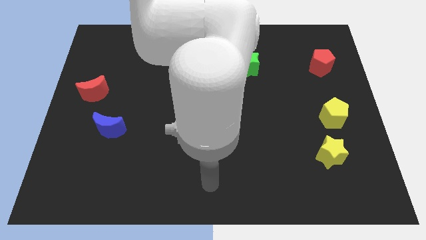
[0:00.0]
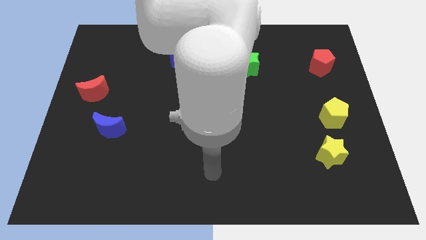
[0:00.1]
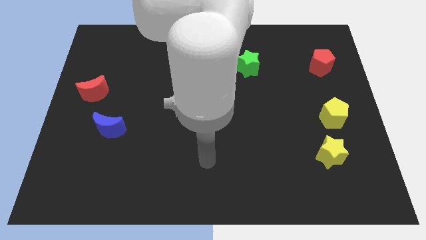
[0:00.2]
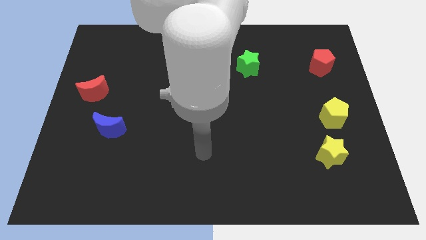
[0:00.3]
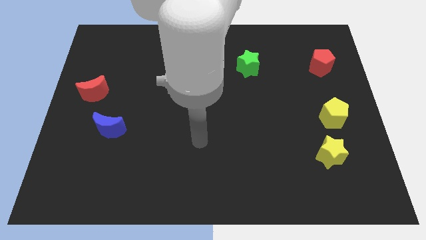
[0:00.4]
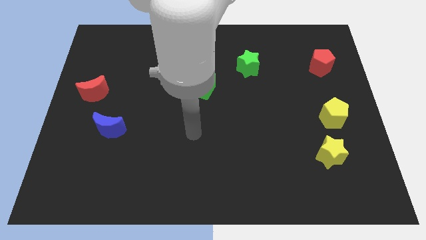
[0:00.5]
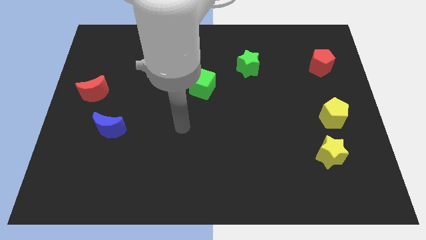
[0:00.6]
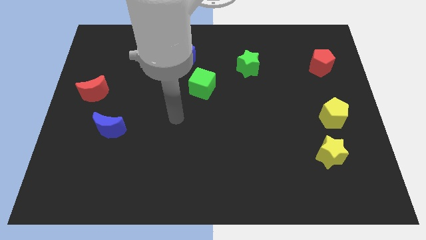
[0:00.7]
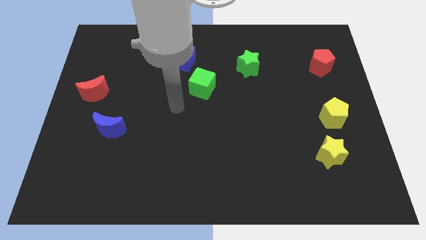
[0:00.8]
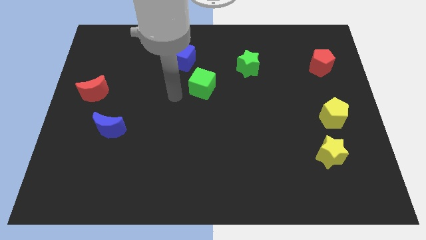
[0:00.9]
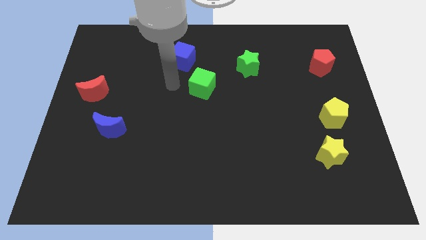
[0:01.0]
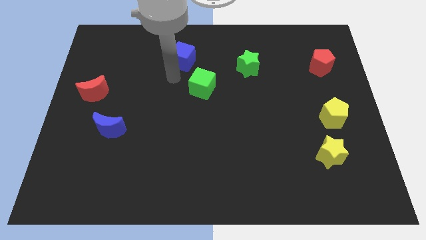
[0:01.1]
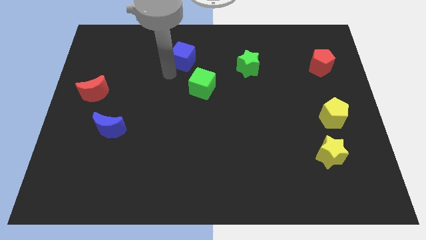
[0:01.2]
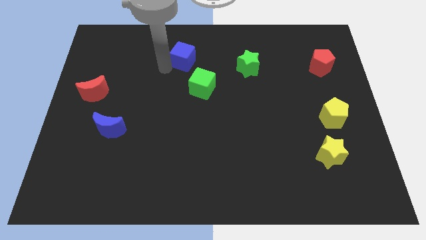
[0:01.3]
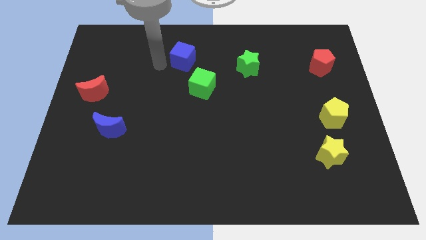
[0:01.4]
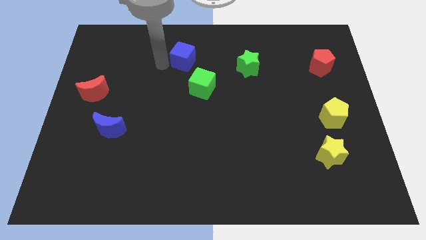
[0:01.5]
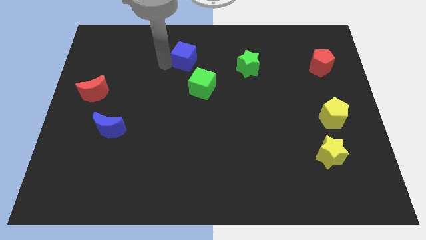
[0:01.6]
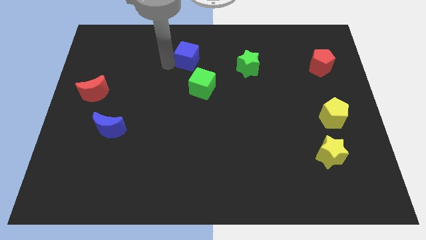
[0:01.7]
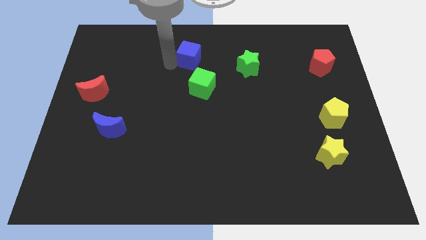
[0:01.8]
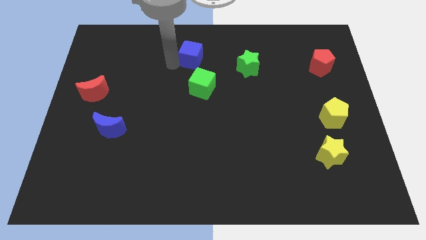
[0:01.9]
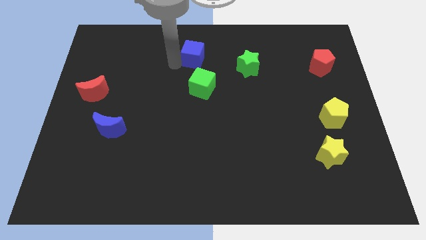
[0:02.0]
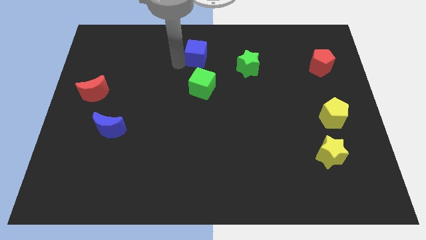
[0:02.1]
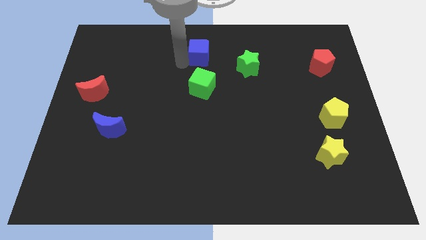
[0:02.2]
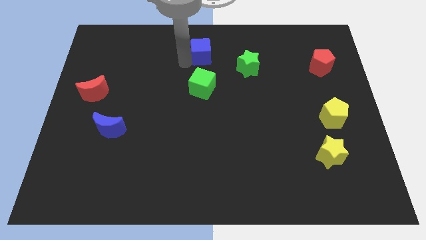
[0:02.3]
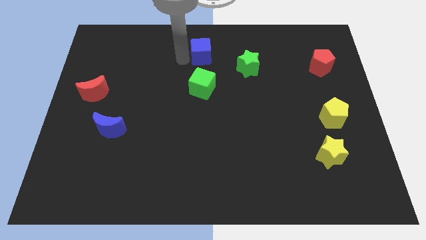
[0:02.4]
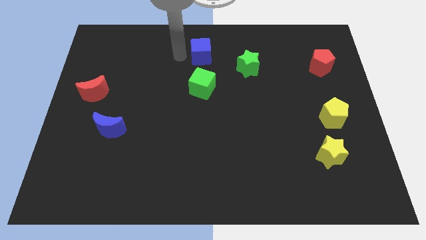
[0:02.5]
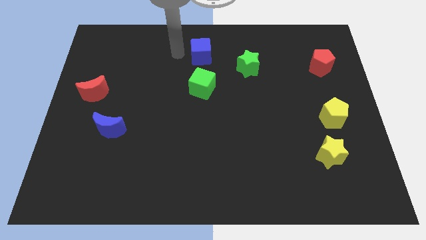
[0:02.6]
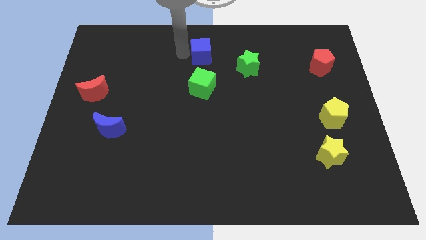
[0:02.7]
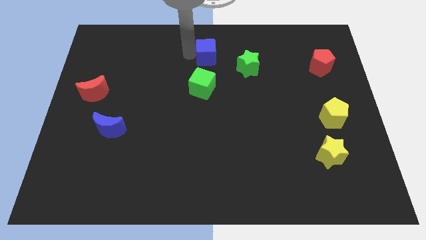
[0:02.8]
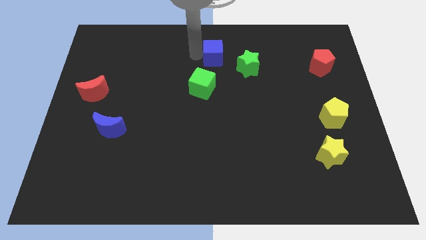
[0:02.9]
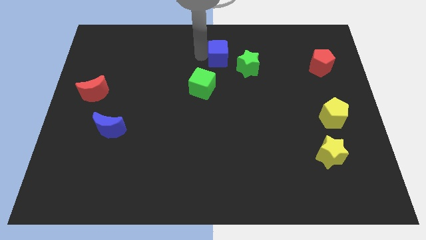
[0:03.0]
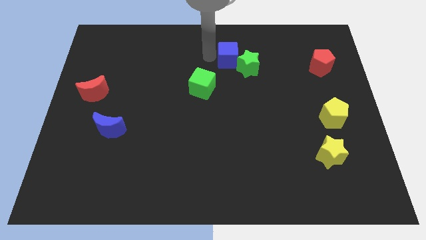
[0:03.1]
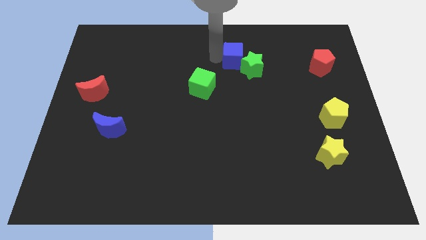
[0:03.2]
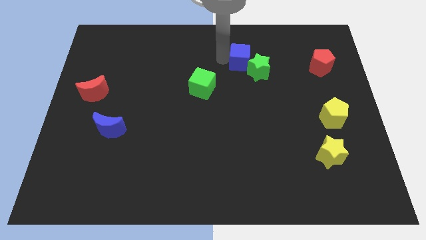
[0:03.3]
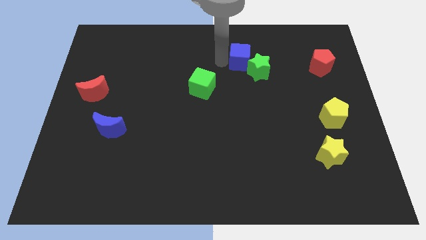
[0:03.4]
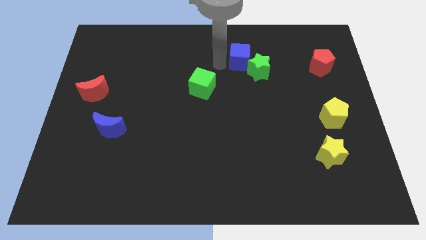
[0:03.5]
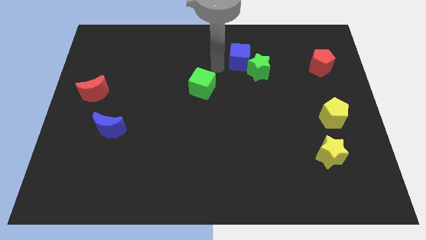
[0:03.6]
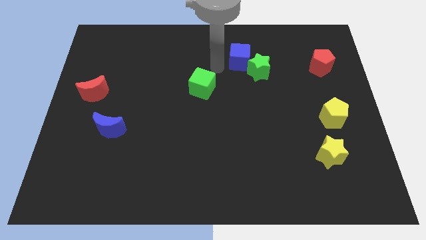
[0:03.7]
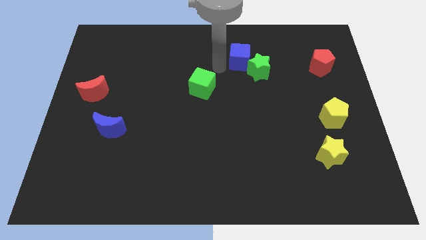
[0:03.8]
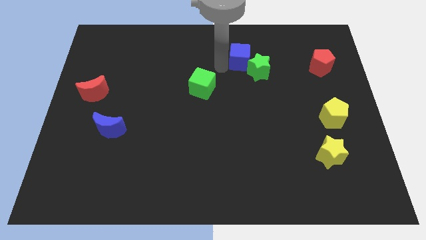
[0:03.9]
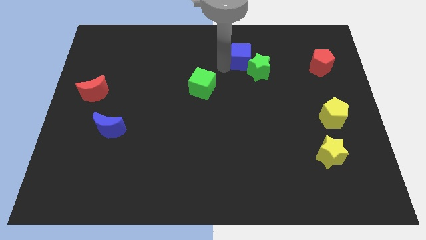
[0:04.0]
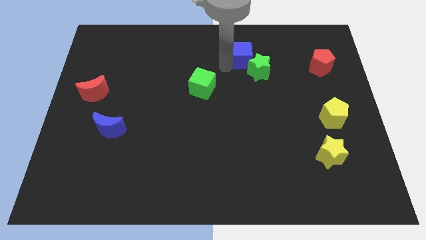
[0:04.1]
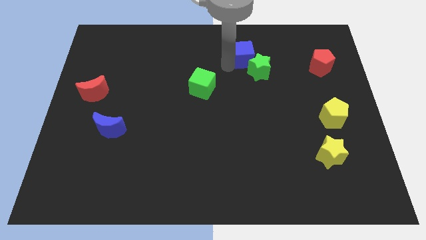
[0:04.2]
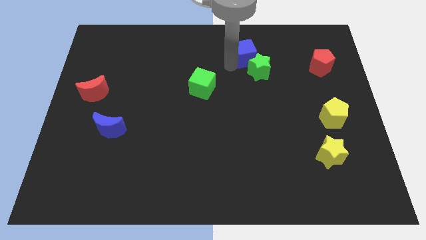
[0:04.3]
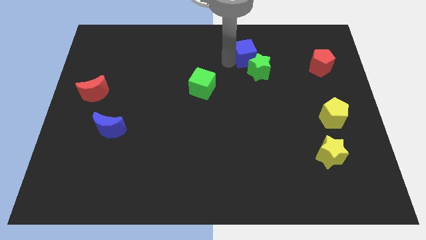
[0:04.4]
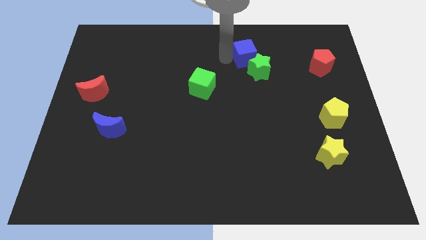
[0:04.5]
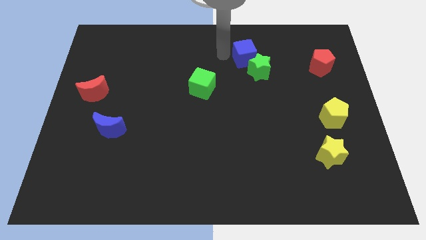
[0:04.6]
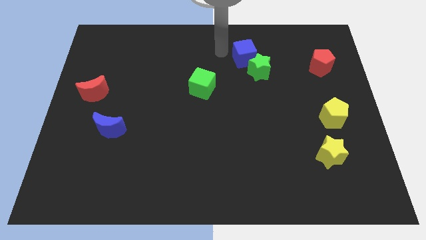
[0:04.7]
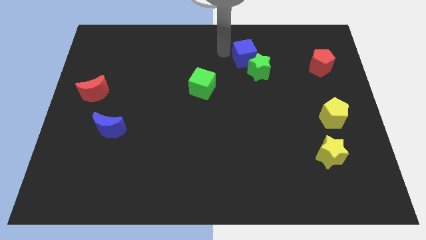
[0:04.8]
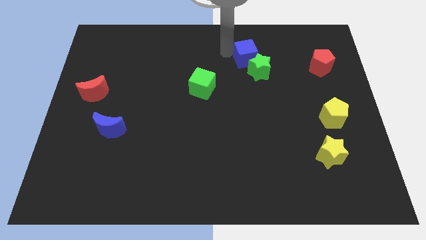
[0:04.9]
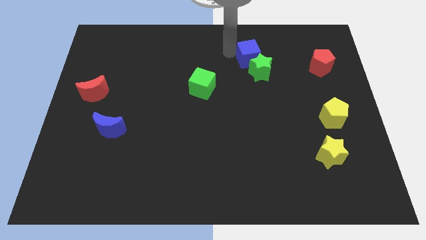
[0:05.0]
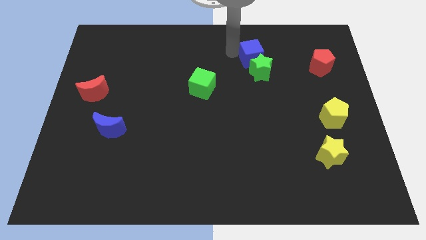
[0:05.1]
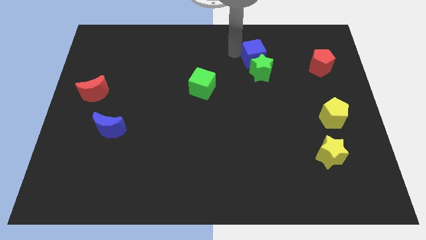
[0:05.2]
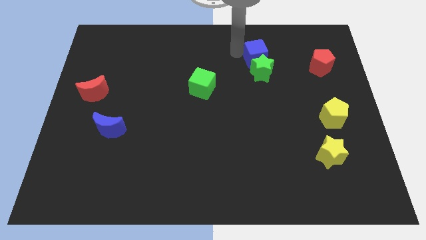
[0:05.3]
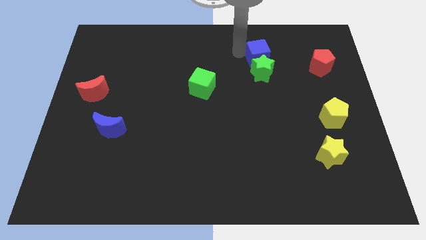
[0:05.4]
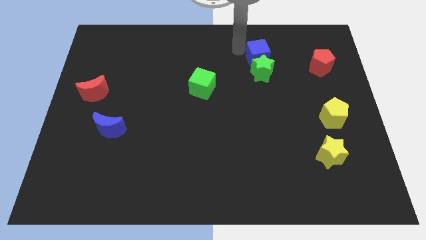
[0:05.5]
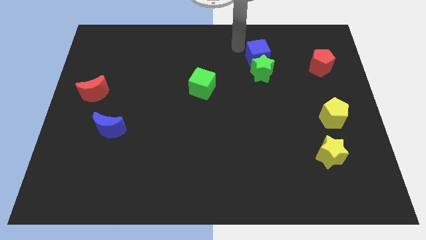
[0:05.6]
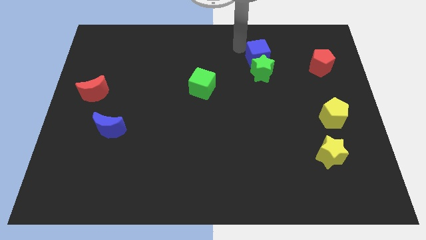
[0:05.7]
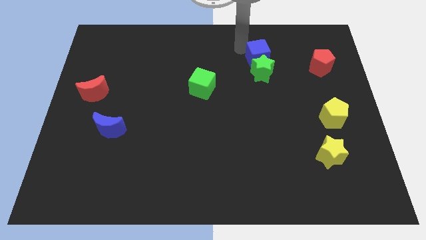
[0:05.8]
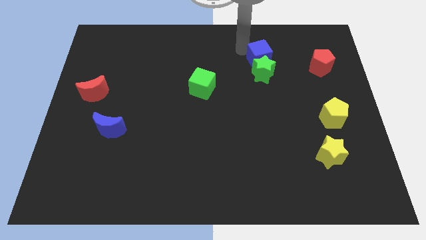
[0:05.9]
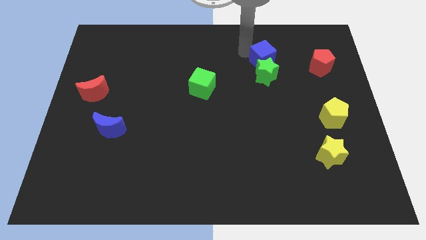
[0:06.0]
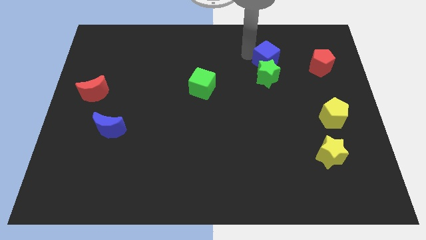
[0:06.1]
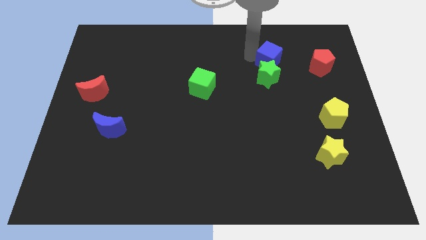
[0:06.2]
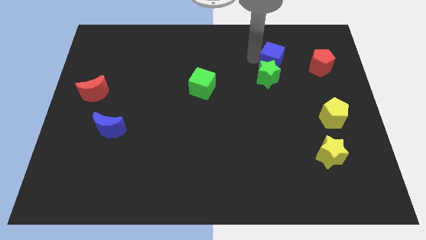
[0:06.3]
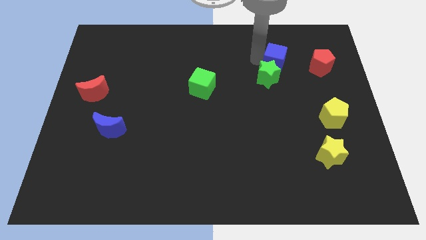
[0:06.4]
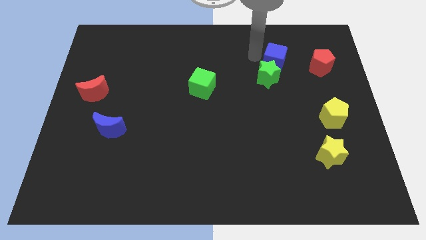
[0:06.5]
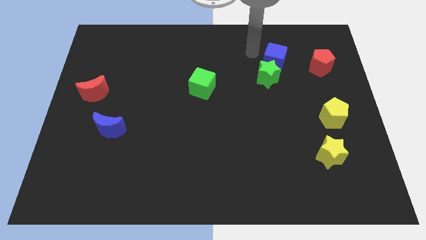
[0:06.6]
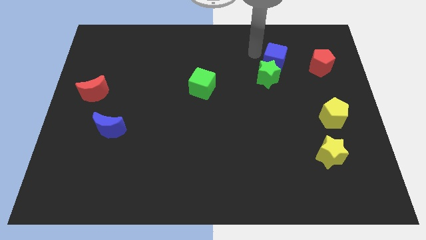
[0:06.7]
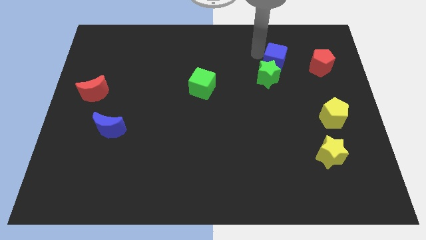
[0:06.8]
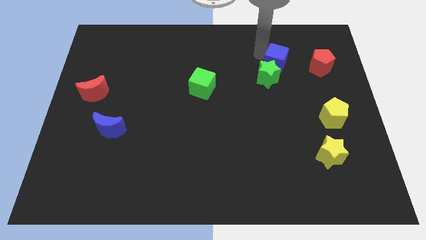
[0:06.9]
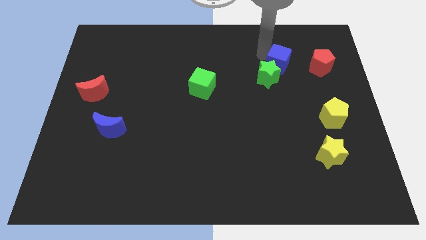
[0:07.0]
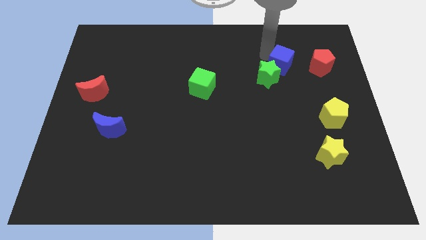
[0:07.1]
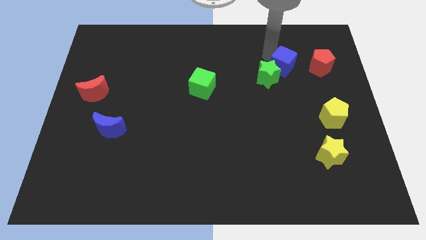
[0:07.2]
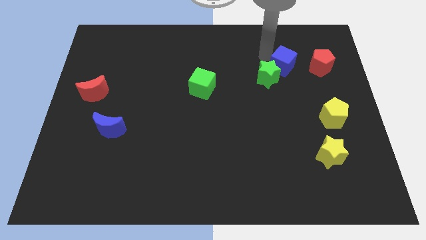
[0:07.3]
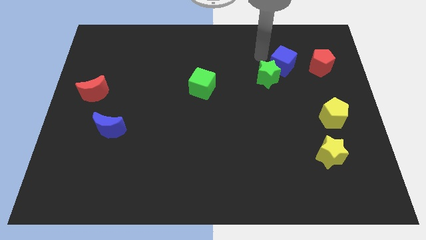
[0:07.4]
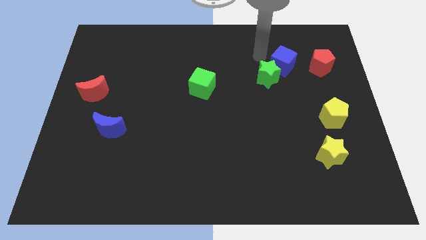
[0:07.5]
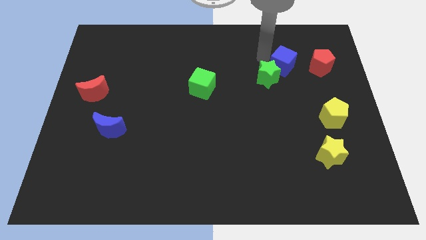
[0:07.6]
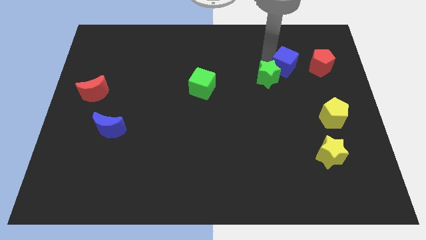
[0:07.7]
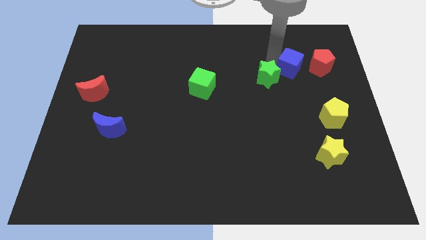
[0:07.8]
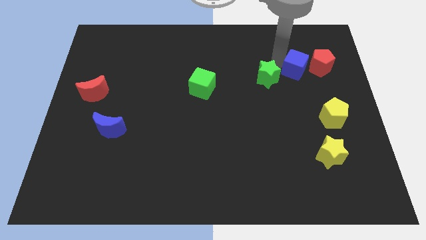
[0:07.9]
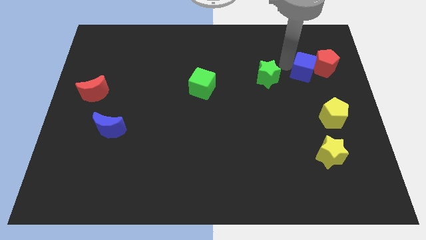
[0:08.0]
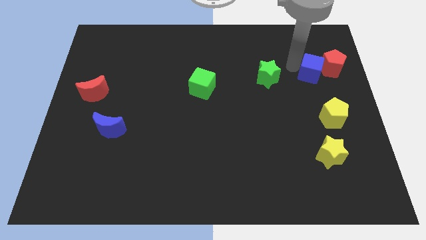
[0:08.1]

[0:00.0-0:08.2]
move the blue cube to the top side of the yellow pentagon

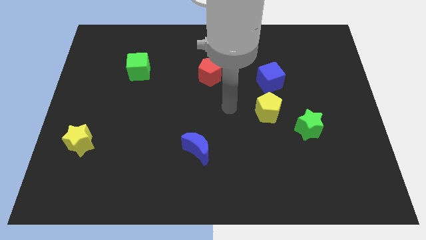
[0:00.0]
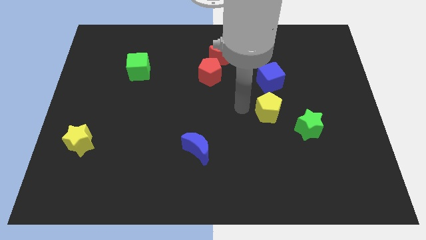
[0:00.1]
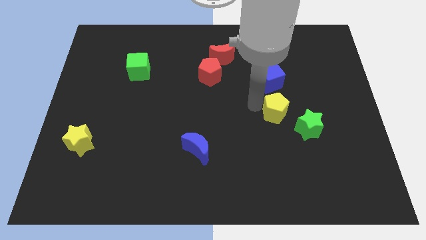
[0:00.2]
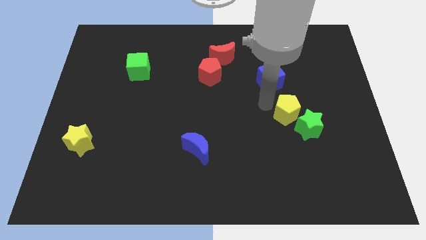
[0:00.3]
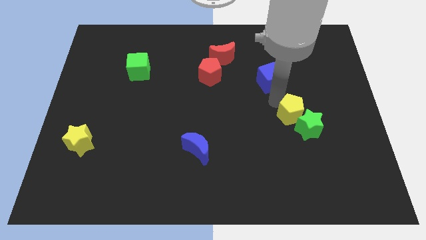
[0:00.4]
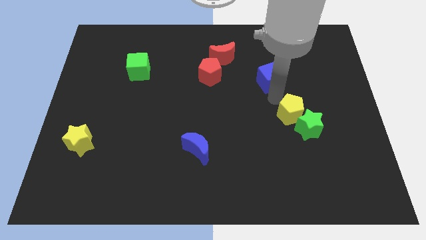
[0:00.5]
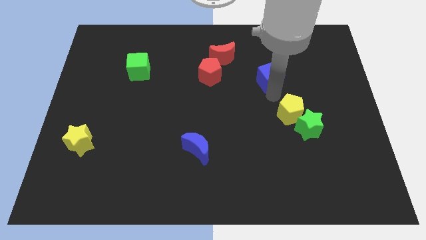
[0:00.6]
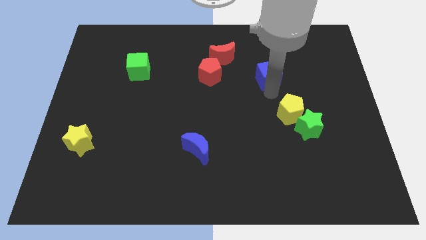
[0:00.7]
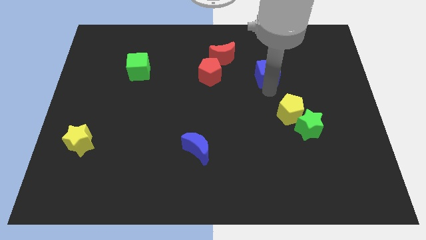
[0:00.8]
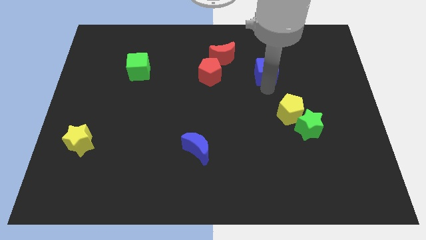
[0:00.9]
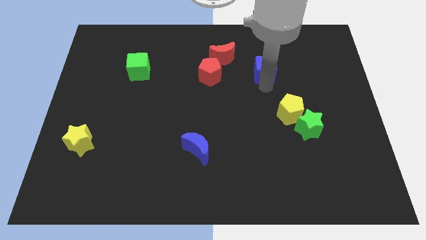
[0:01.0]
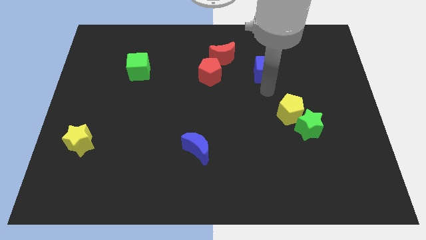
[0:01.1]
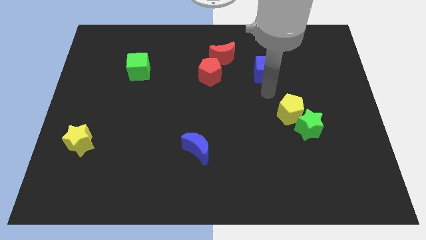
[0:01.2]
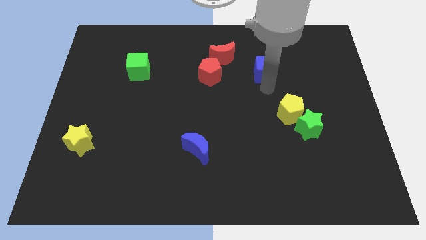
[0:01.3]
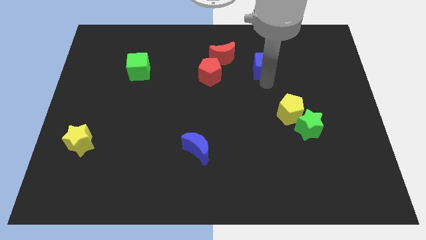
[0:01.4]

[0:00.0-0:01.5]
move the blue cube to the right side of the red moon
